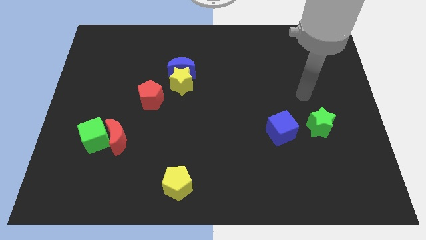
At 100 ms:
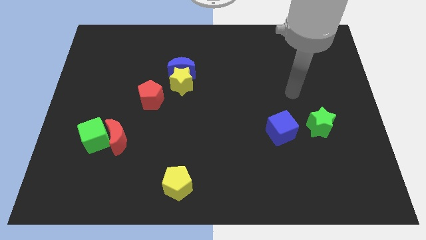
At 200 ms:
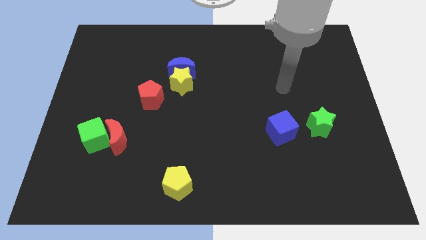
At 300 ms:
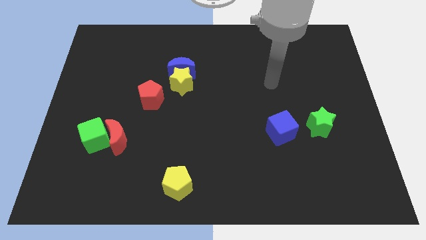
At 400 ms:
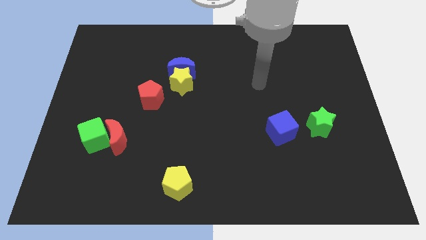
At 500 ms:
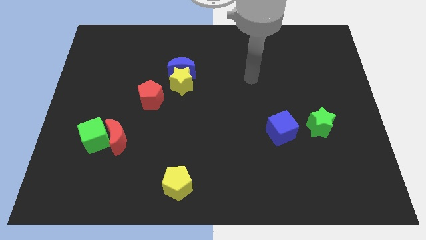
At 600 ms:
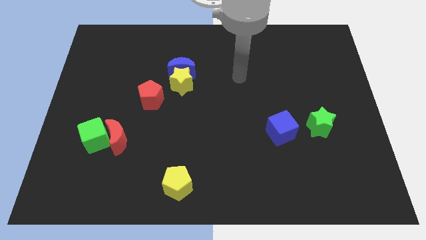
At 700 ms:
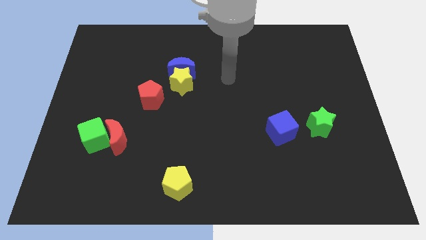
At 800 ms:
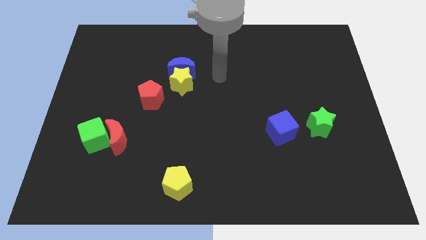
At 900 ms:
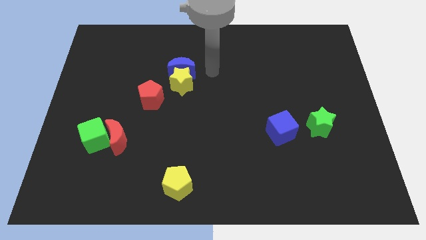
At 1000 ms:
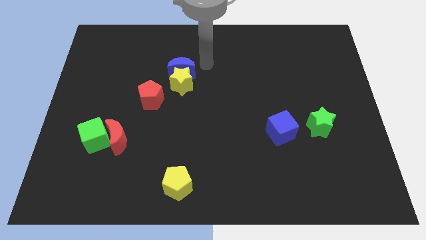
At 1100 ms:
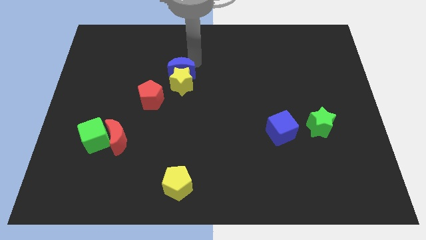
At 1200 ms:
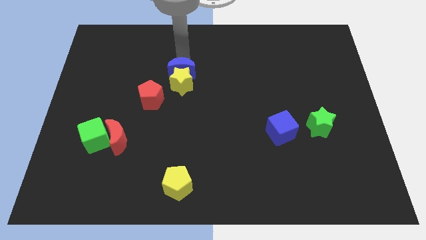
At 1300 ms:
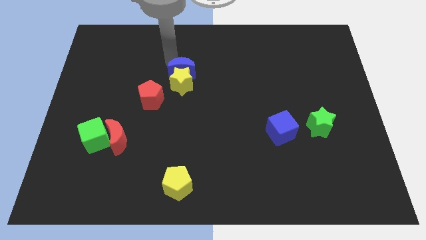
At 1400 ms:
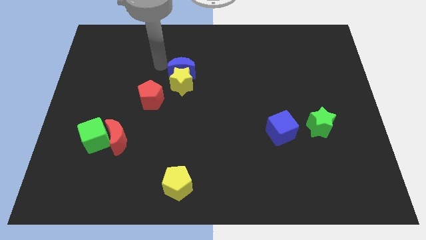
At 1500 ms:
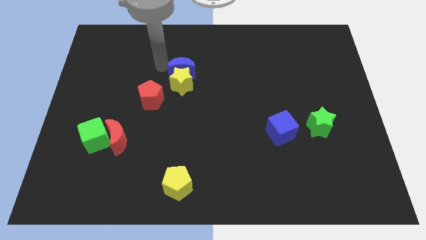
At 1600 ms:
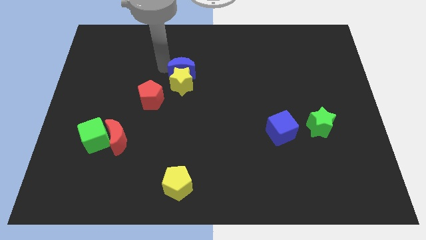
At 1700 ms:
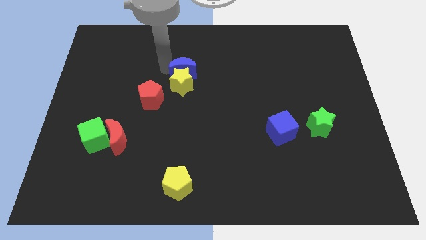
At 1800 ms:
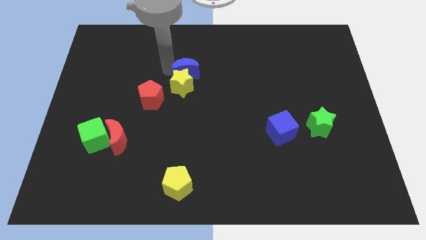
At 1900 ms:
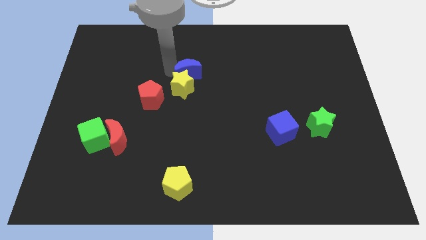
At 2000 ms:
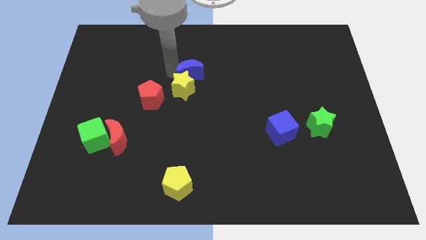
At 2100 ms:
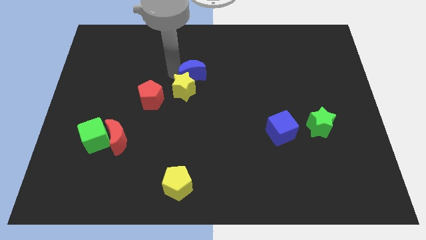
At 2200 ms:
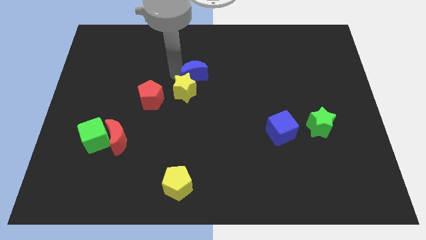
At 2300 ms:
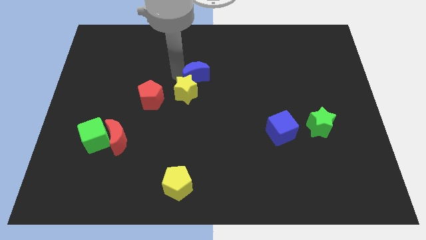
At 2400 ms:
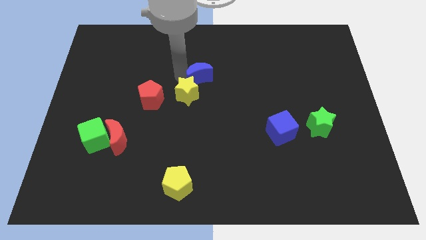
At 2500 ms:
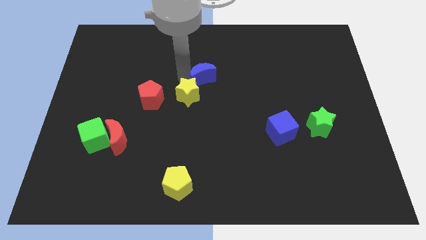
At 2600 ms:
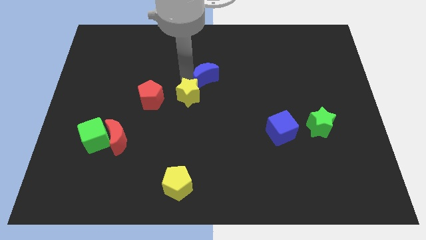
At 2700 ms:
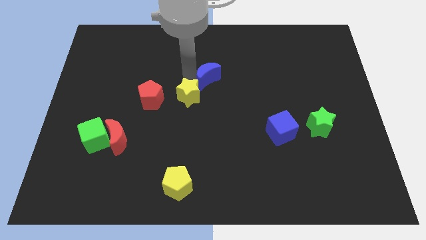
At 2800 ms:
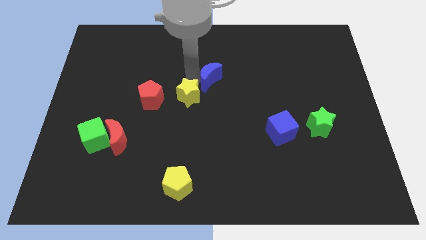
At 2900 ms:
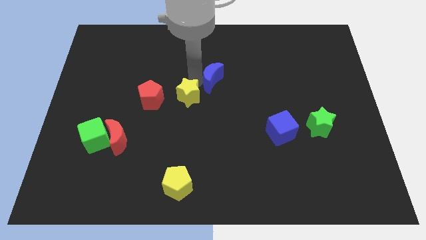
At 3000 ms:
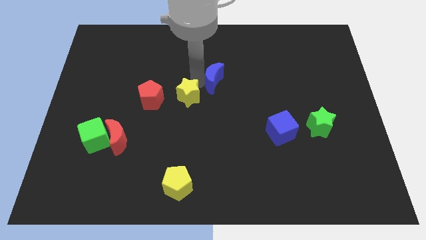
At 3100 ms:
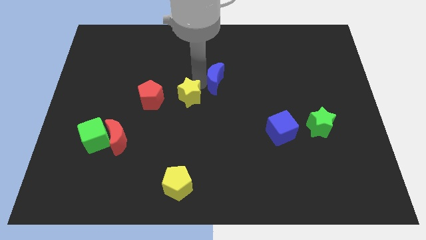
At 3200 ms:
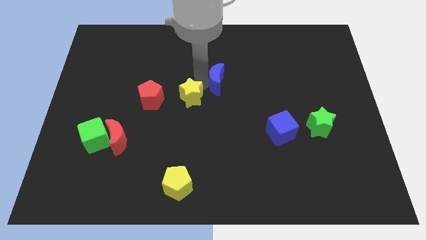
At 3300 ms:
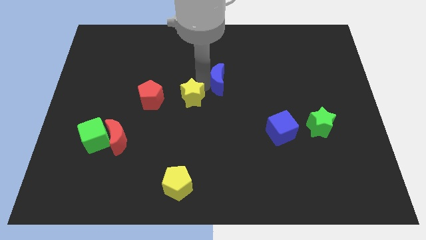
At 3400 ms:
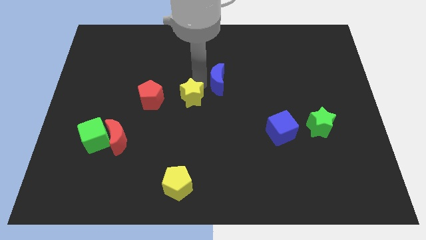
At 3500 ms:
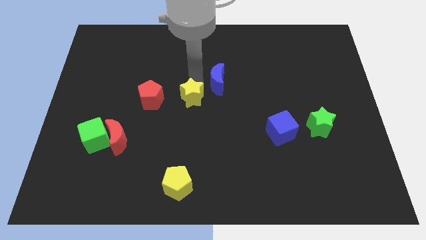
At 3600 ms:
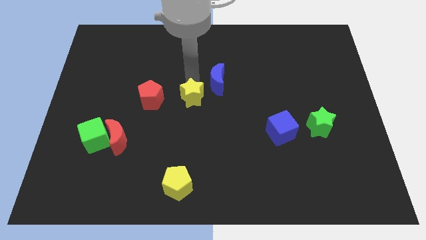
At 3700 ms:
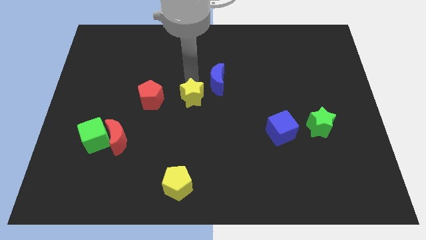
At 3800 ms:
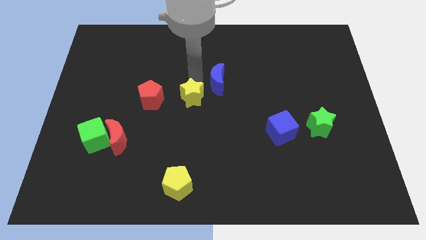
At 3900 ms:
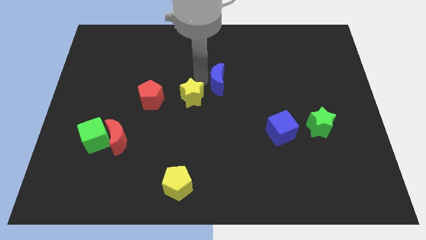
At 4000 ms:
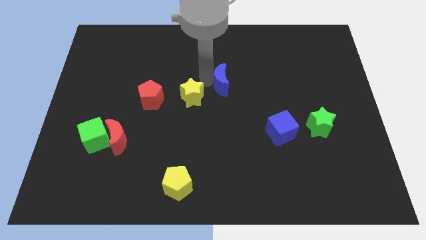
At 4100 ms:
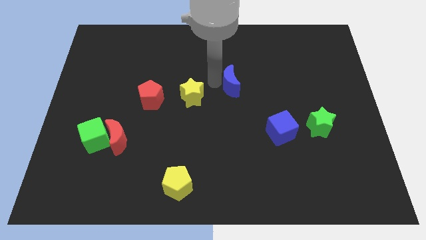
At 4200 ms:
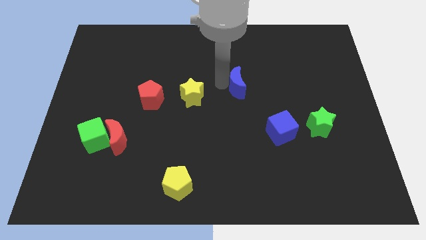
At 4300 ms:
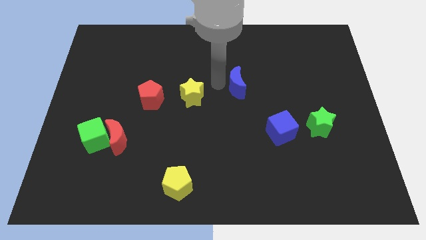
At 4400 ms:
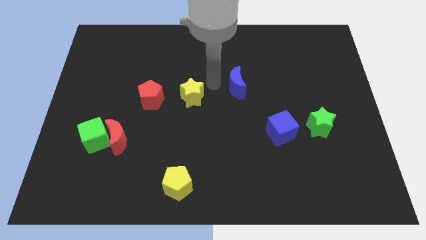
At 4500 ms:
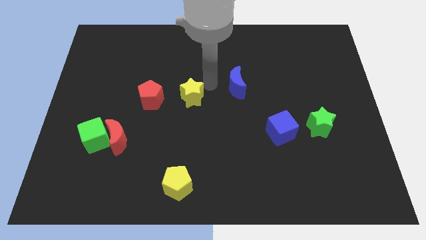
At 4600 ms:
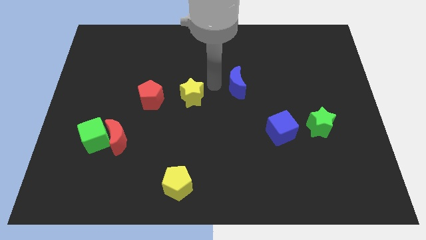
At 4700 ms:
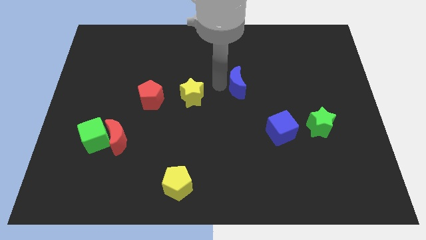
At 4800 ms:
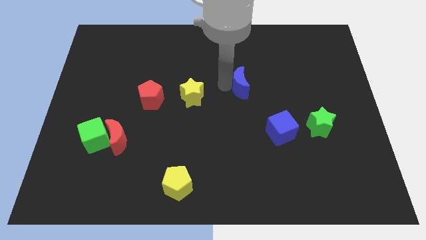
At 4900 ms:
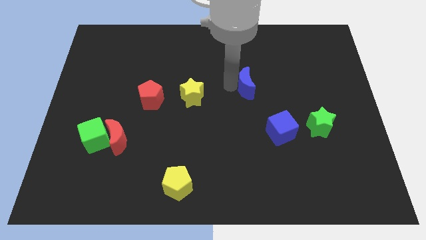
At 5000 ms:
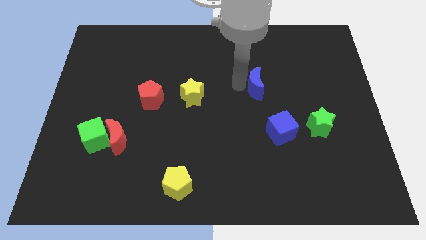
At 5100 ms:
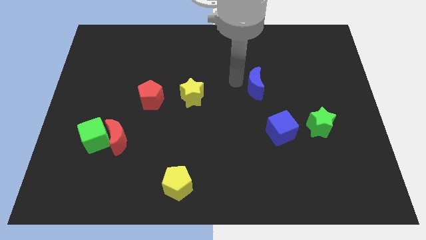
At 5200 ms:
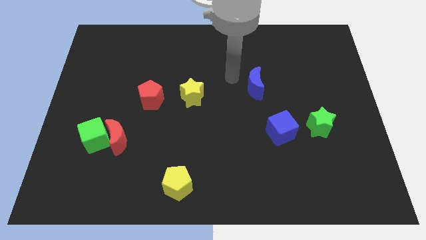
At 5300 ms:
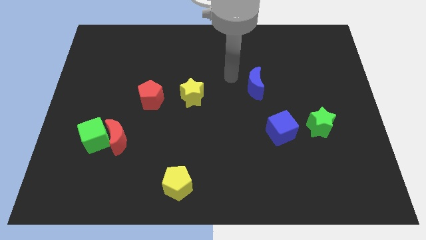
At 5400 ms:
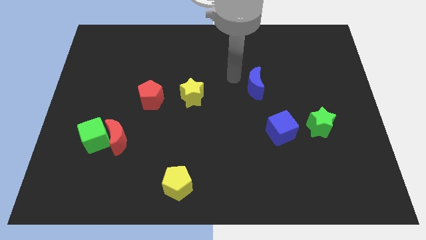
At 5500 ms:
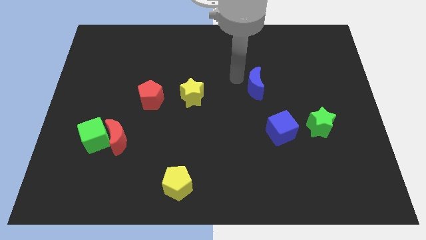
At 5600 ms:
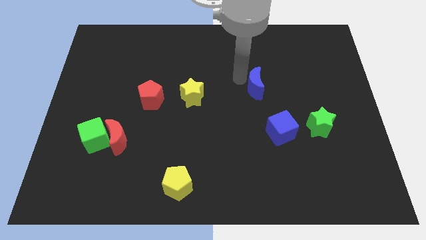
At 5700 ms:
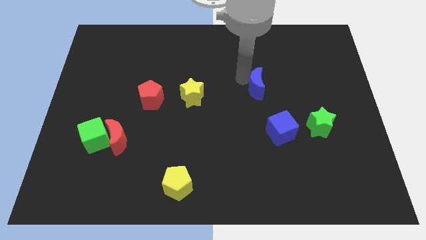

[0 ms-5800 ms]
move the blue moon to the top side of the blue cube

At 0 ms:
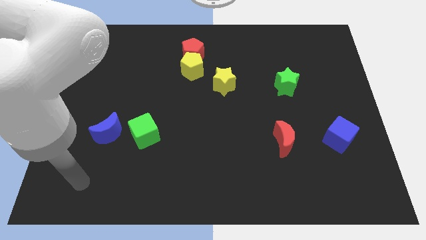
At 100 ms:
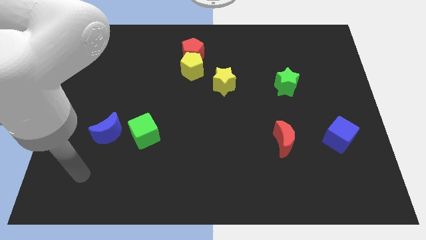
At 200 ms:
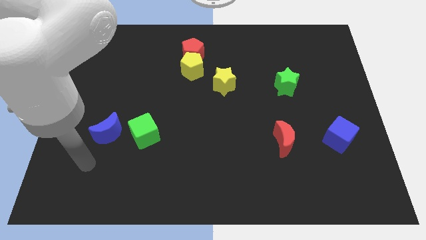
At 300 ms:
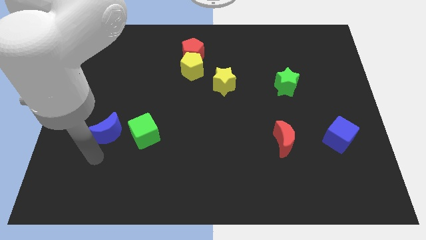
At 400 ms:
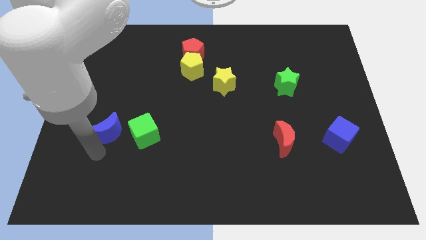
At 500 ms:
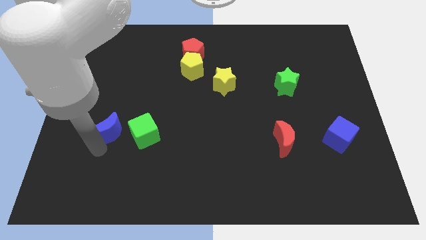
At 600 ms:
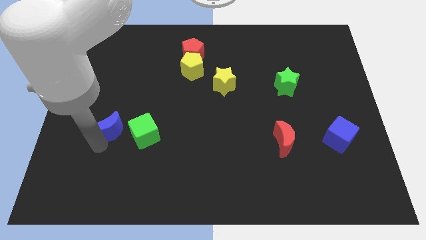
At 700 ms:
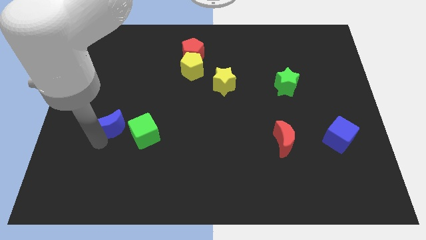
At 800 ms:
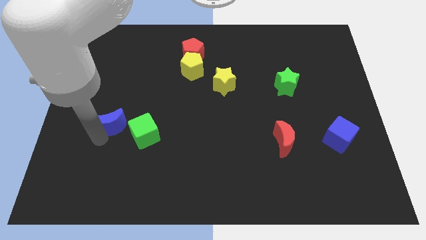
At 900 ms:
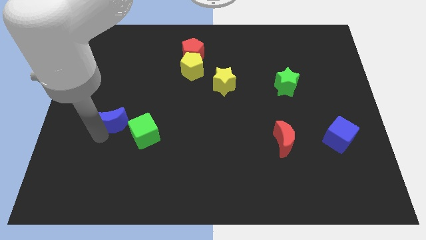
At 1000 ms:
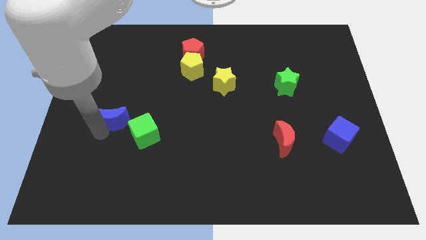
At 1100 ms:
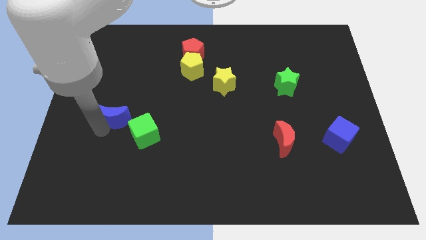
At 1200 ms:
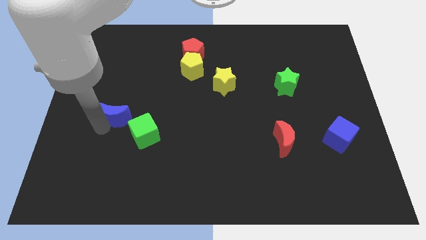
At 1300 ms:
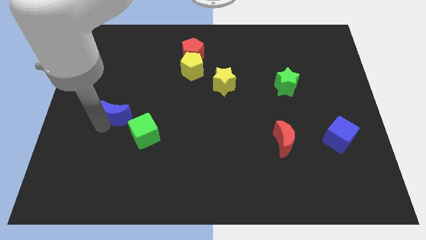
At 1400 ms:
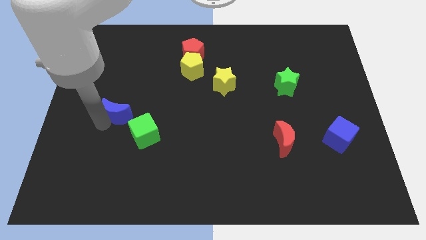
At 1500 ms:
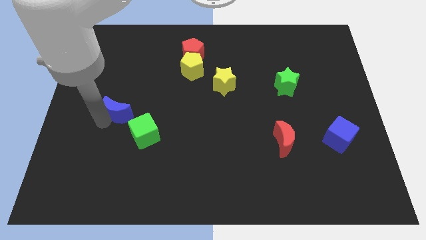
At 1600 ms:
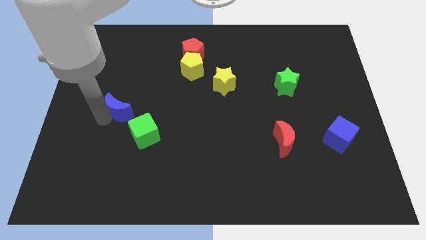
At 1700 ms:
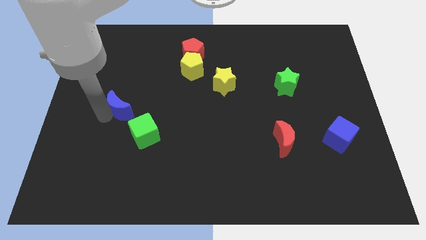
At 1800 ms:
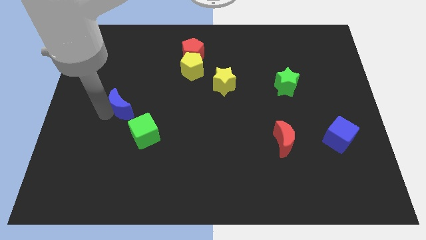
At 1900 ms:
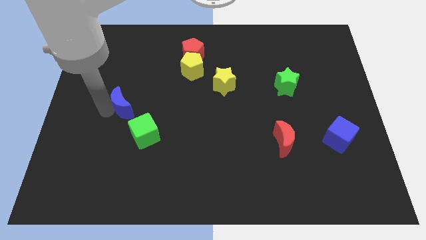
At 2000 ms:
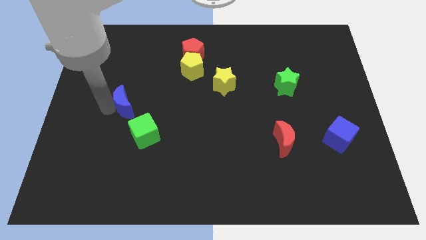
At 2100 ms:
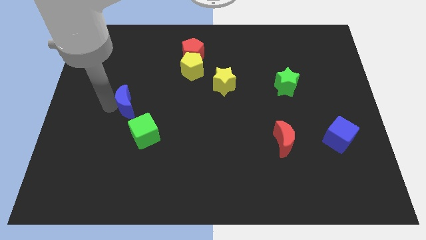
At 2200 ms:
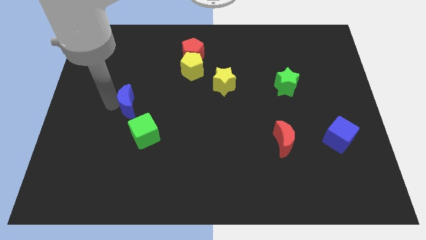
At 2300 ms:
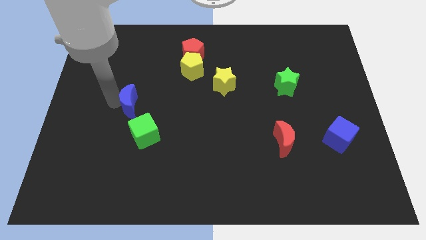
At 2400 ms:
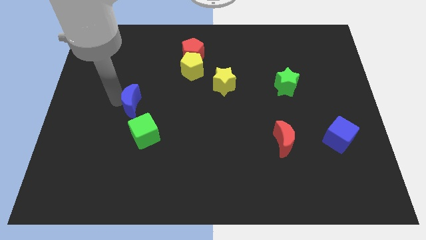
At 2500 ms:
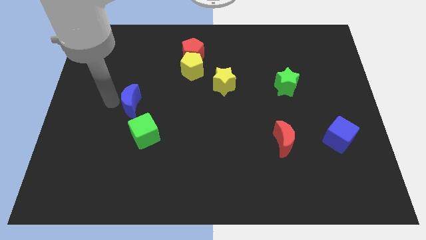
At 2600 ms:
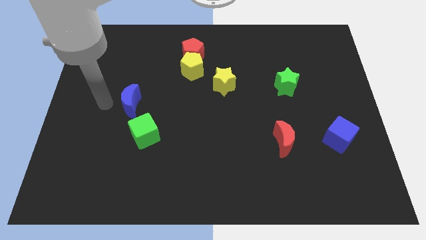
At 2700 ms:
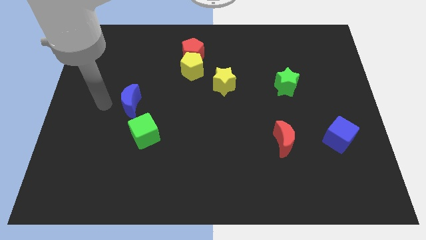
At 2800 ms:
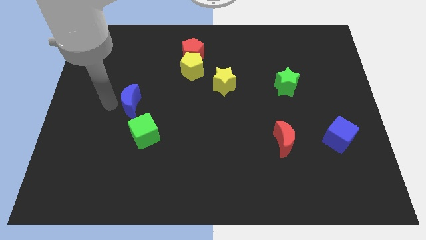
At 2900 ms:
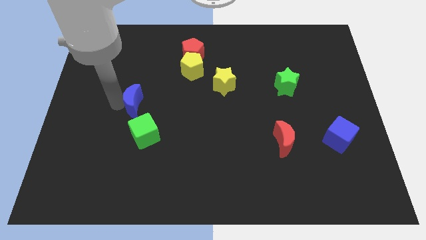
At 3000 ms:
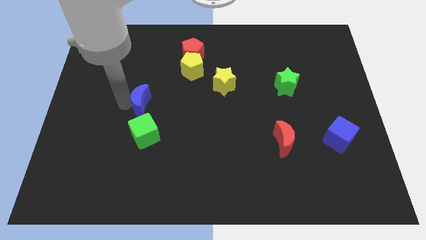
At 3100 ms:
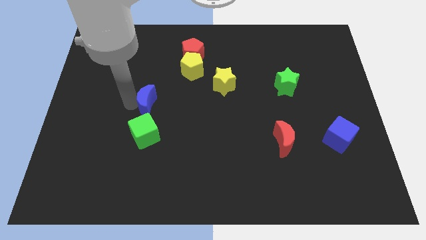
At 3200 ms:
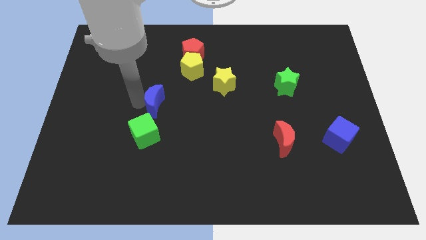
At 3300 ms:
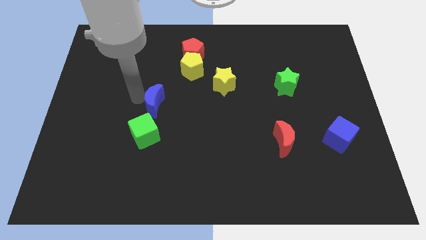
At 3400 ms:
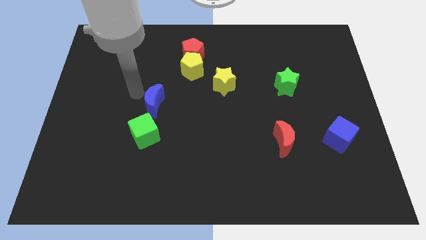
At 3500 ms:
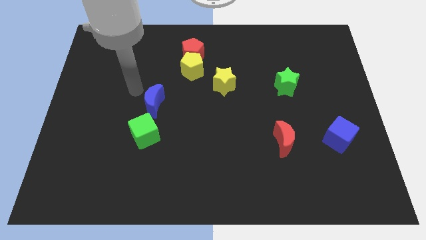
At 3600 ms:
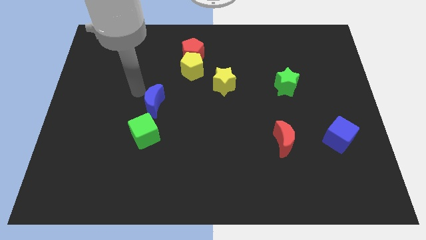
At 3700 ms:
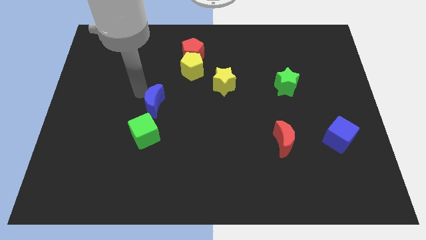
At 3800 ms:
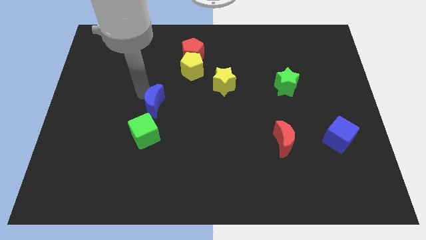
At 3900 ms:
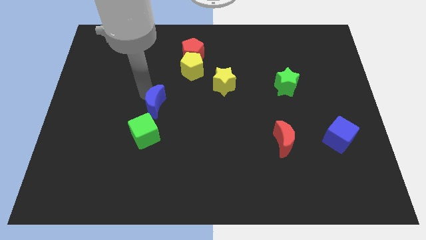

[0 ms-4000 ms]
push the blue moon to the top right side of the green cube
